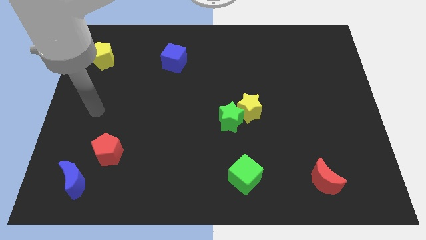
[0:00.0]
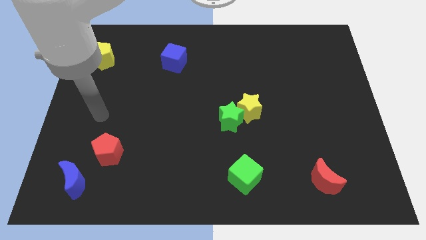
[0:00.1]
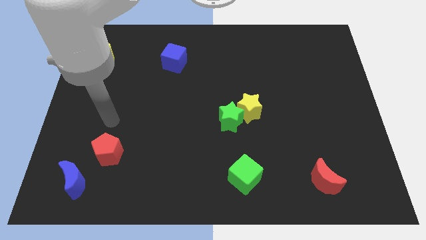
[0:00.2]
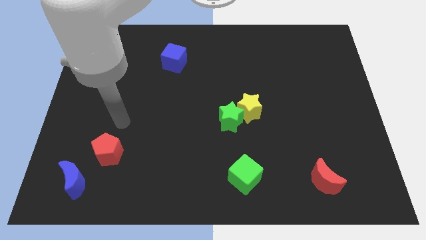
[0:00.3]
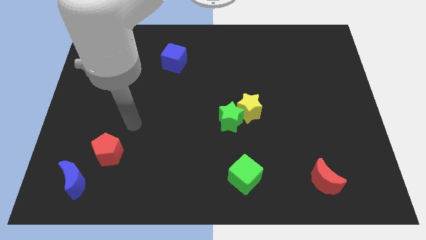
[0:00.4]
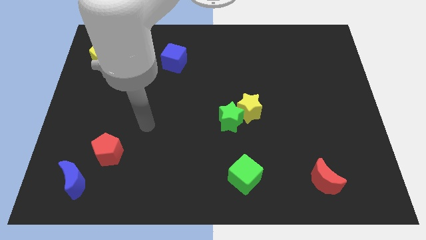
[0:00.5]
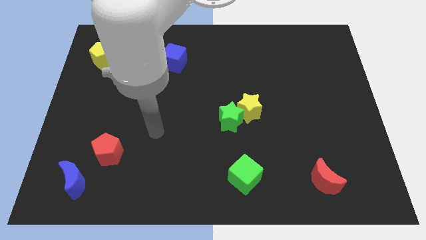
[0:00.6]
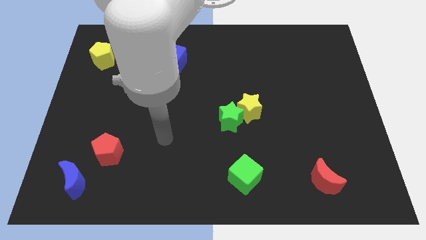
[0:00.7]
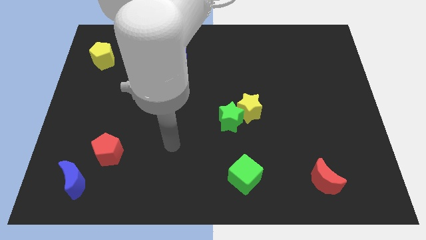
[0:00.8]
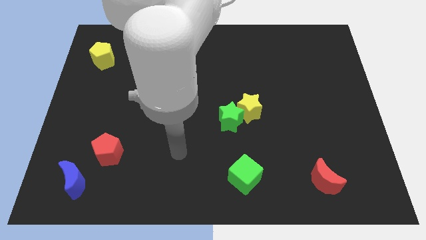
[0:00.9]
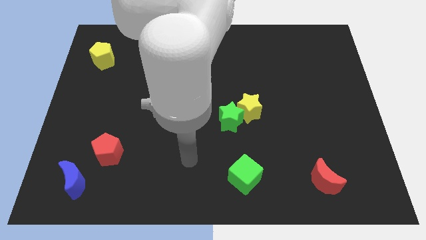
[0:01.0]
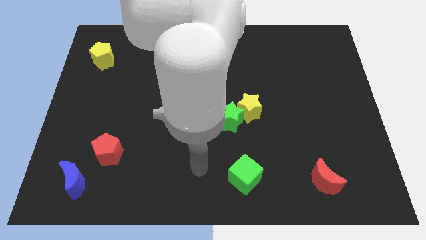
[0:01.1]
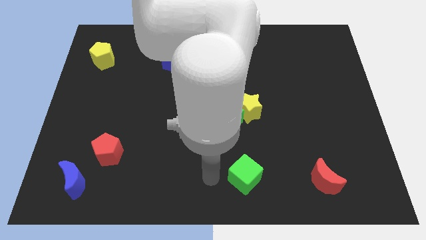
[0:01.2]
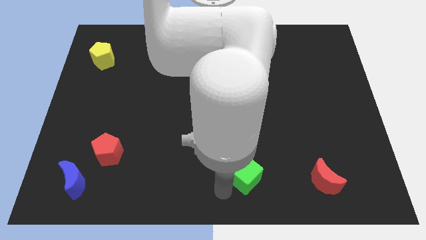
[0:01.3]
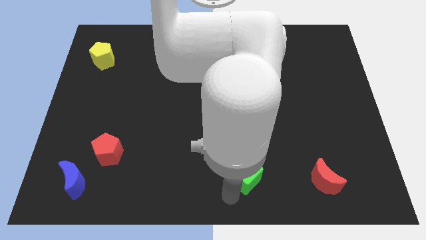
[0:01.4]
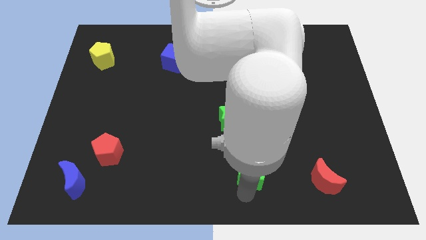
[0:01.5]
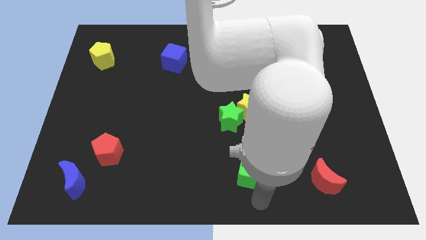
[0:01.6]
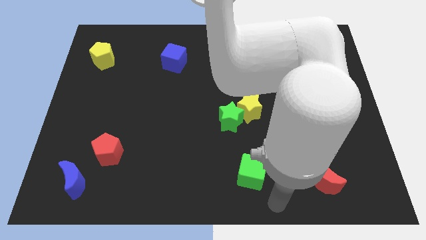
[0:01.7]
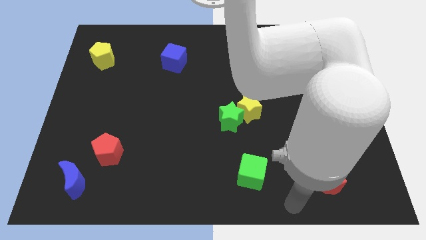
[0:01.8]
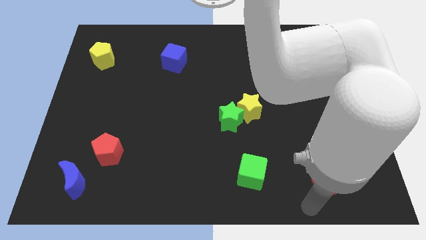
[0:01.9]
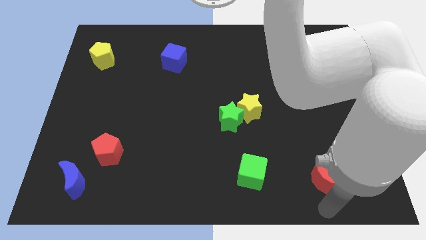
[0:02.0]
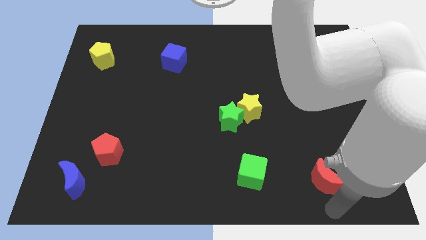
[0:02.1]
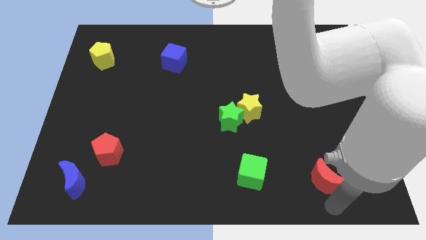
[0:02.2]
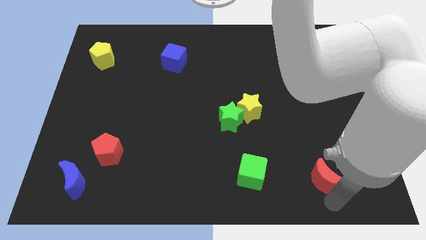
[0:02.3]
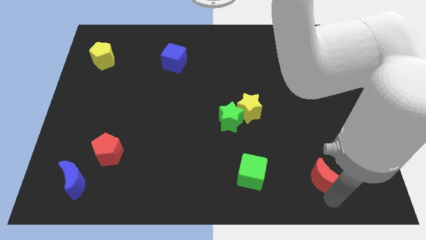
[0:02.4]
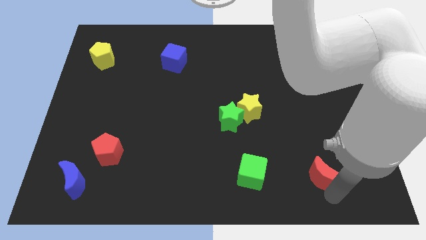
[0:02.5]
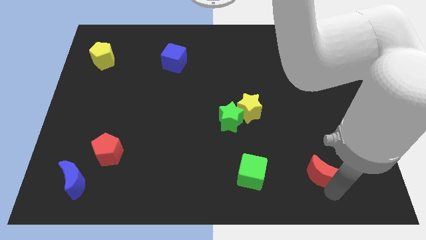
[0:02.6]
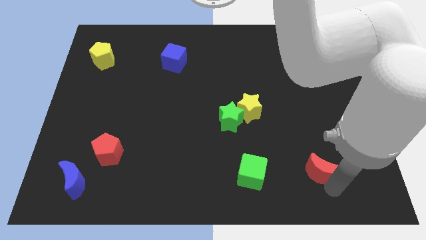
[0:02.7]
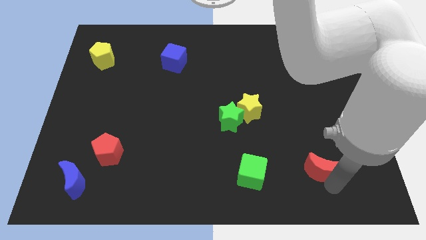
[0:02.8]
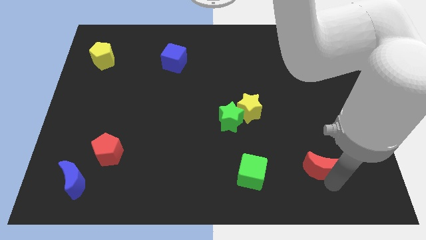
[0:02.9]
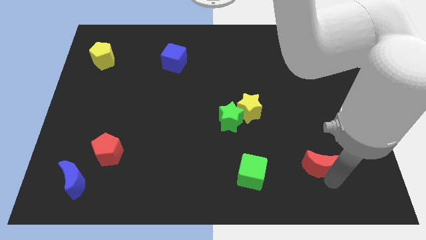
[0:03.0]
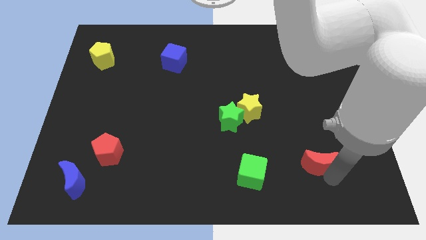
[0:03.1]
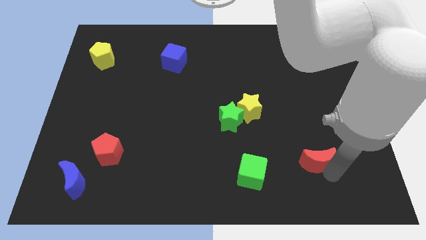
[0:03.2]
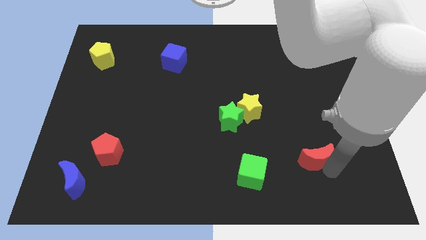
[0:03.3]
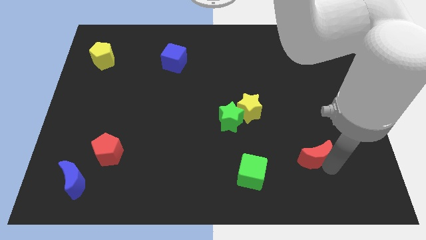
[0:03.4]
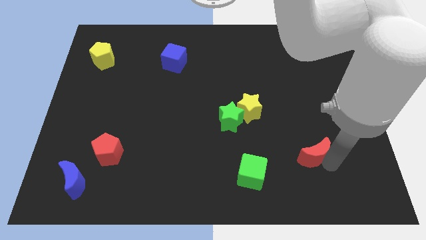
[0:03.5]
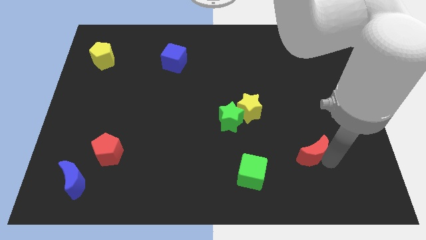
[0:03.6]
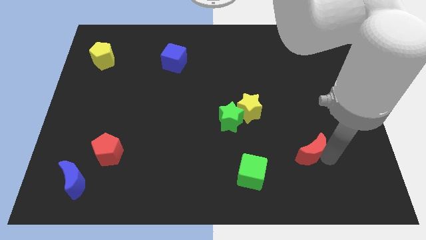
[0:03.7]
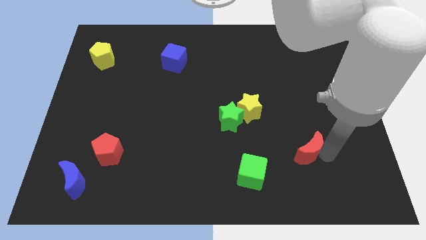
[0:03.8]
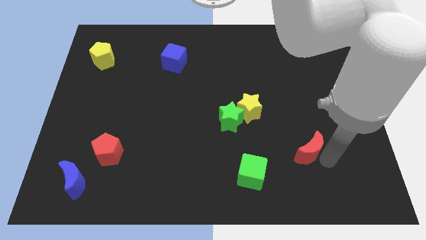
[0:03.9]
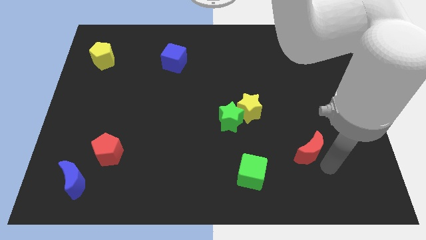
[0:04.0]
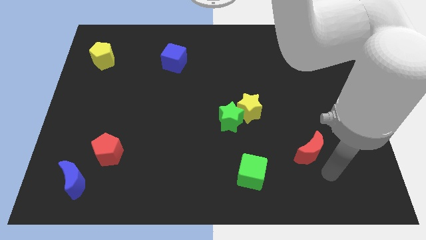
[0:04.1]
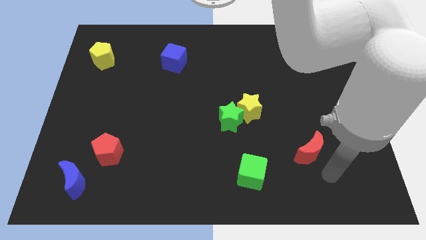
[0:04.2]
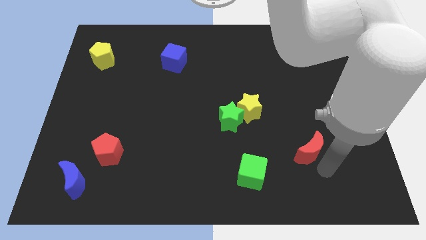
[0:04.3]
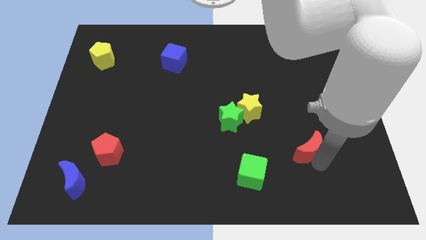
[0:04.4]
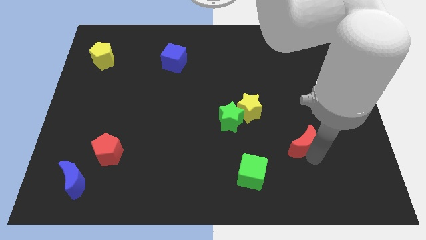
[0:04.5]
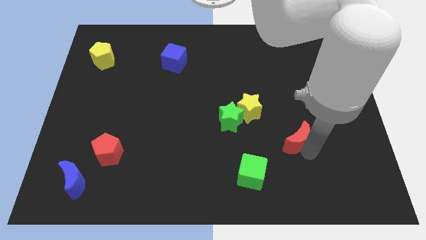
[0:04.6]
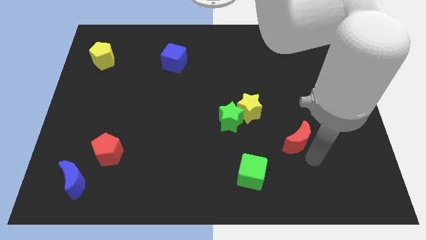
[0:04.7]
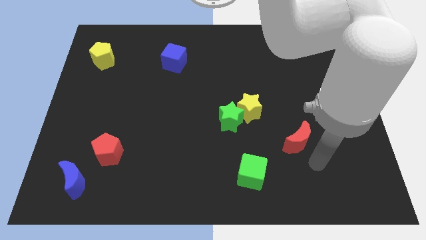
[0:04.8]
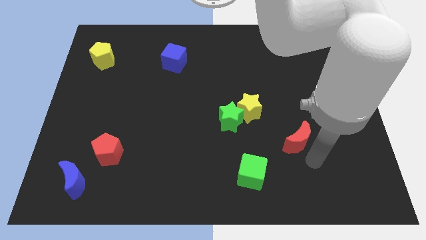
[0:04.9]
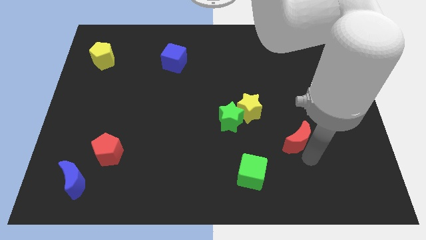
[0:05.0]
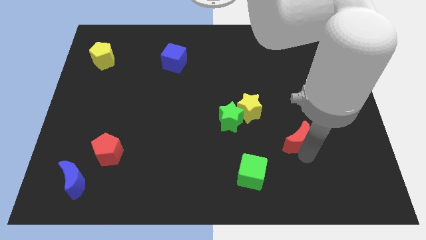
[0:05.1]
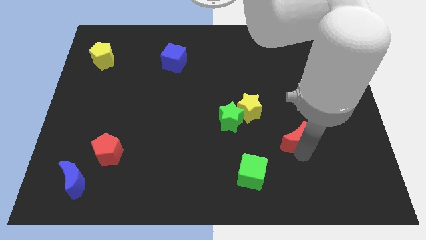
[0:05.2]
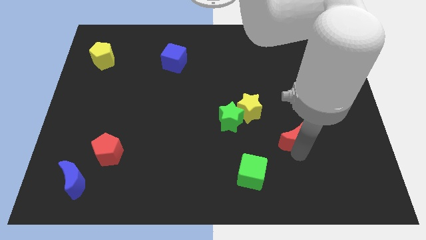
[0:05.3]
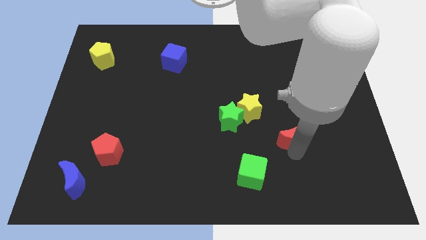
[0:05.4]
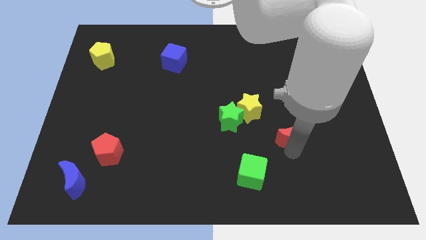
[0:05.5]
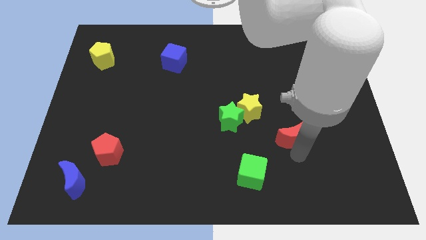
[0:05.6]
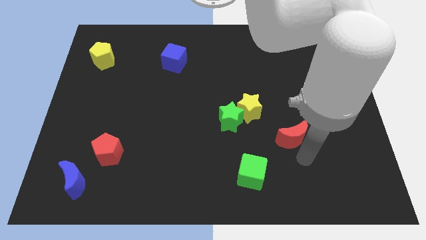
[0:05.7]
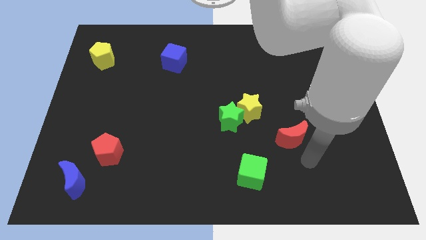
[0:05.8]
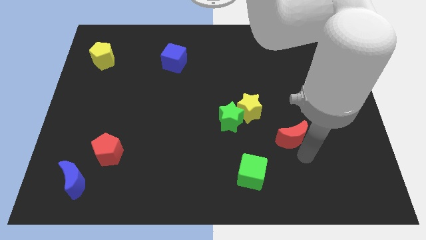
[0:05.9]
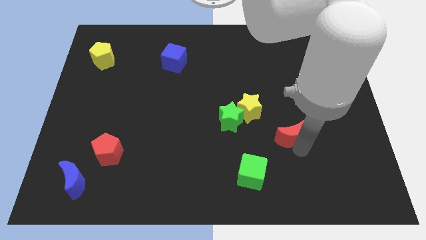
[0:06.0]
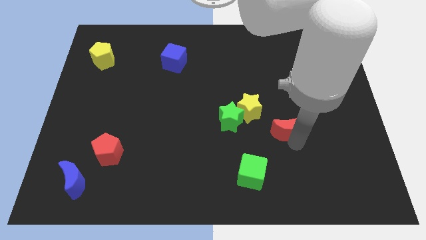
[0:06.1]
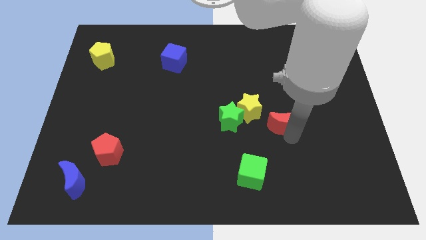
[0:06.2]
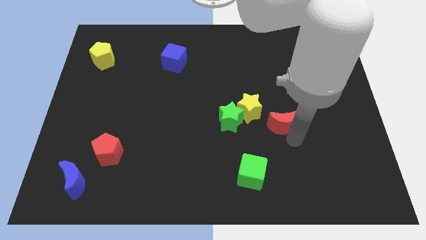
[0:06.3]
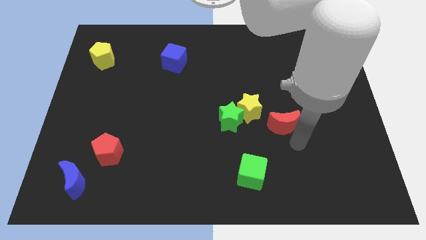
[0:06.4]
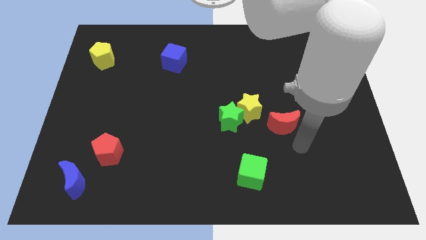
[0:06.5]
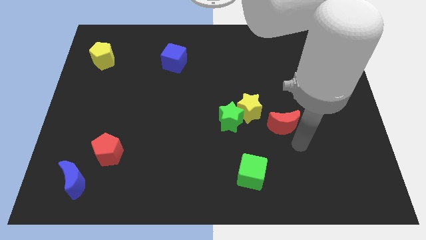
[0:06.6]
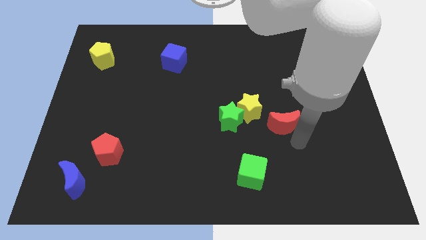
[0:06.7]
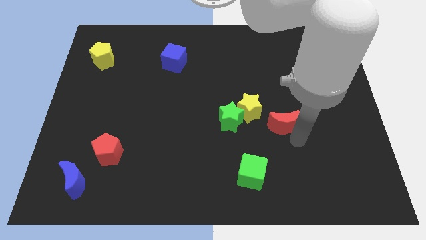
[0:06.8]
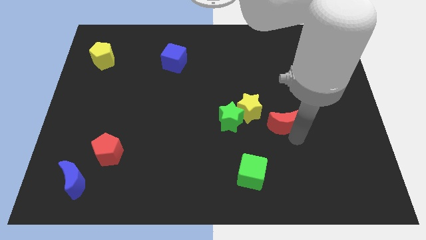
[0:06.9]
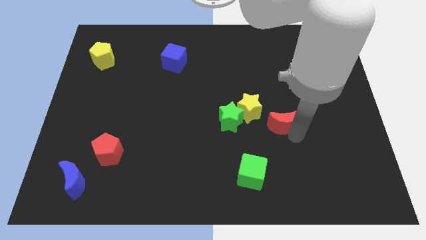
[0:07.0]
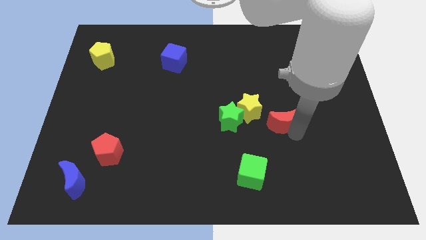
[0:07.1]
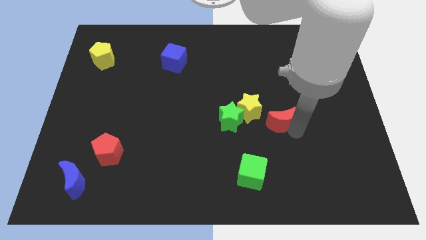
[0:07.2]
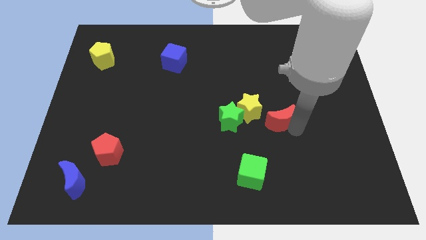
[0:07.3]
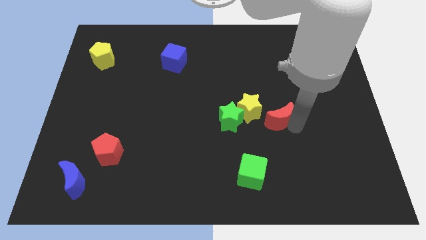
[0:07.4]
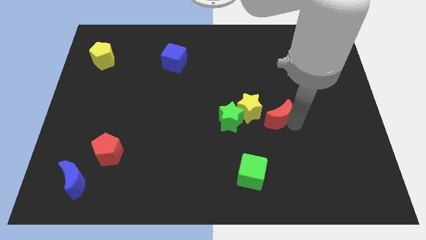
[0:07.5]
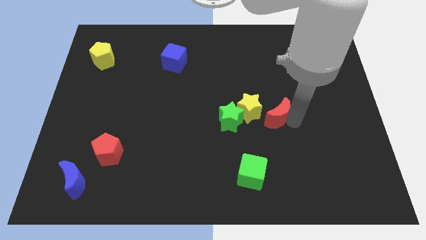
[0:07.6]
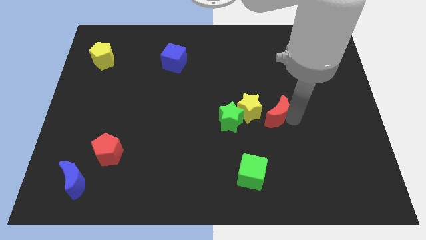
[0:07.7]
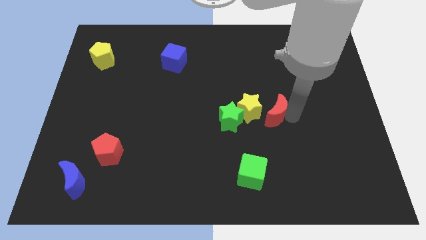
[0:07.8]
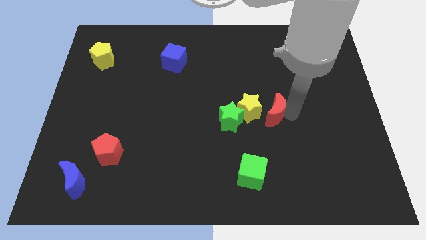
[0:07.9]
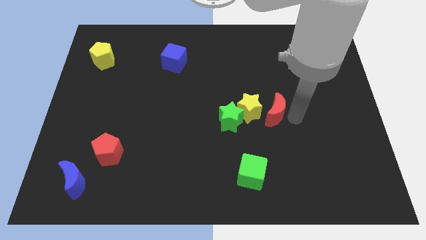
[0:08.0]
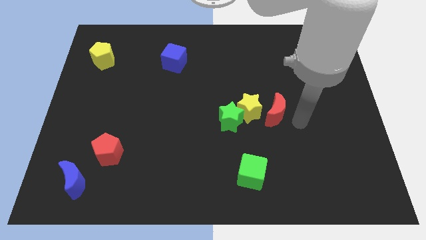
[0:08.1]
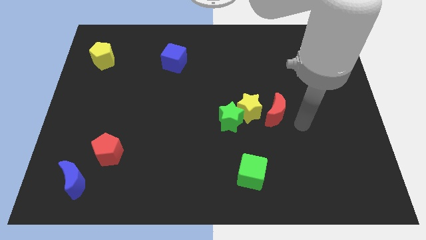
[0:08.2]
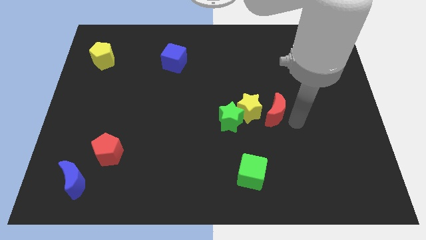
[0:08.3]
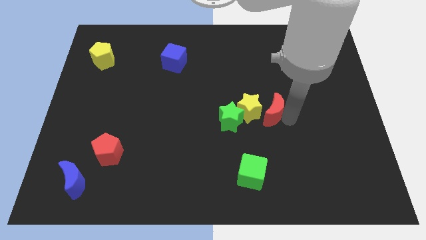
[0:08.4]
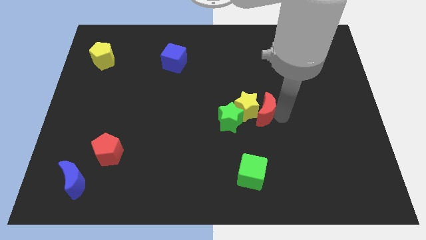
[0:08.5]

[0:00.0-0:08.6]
move the red moon to the top right of the green star
